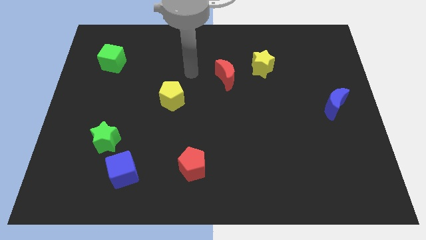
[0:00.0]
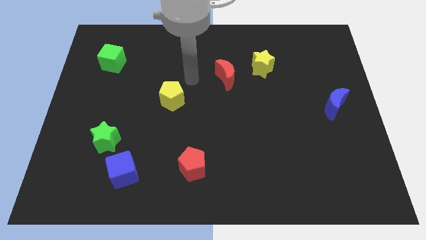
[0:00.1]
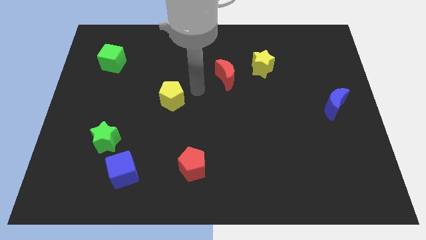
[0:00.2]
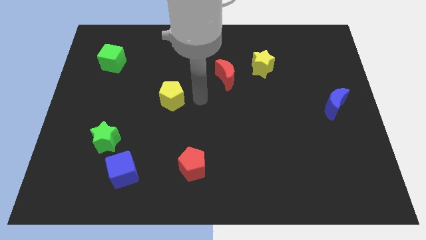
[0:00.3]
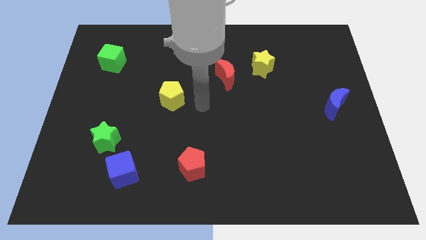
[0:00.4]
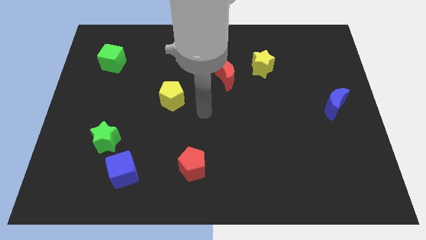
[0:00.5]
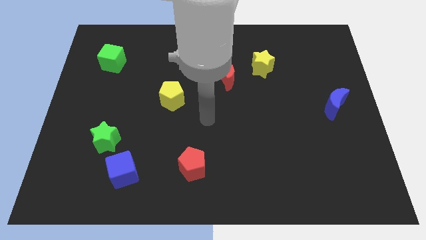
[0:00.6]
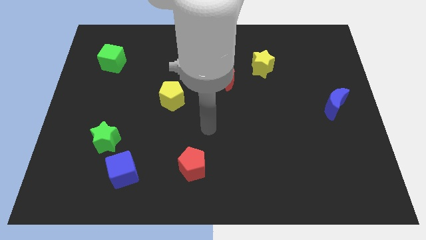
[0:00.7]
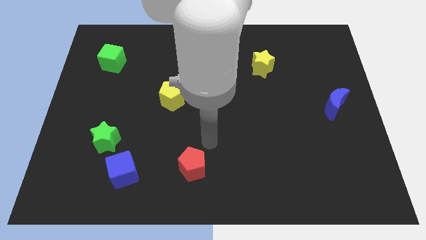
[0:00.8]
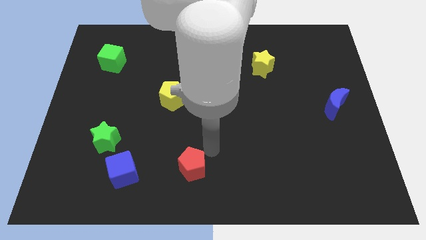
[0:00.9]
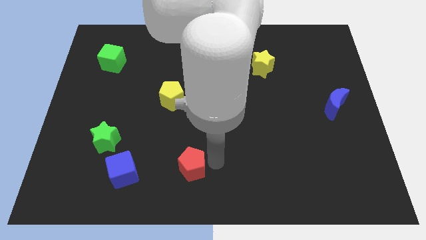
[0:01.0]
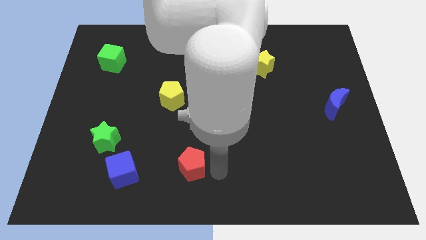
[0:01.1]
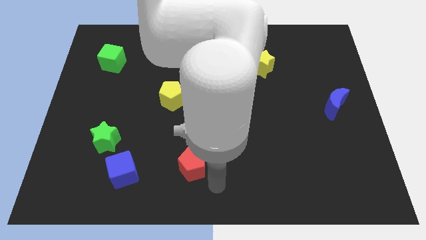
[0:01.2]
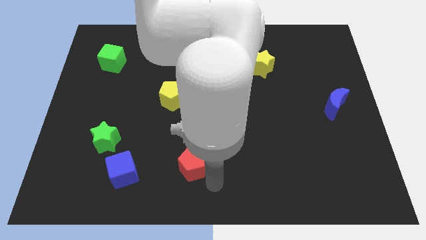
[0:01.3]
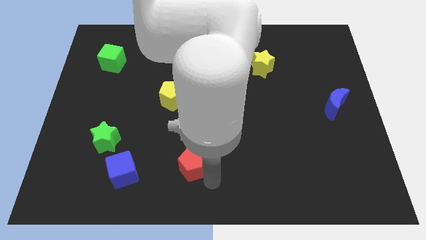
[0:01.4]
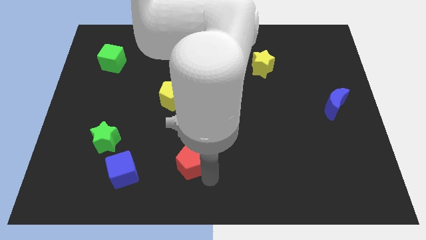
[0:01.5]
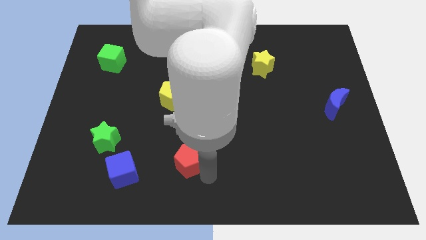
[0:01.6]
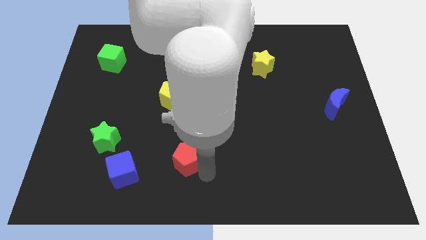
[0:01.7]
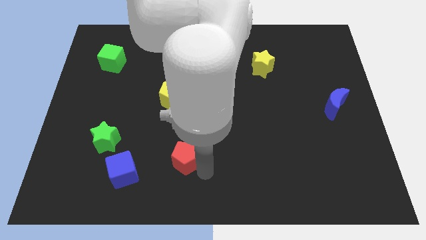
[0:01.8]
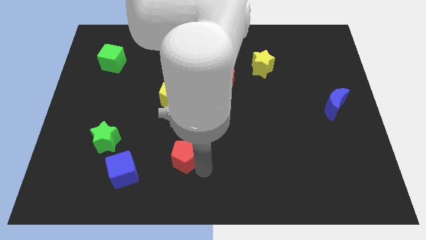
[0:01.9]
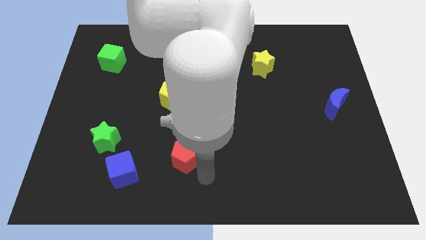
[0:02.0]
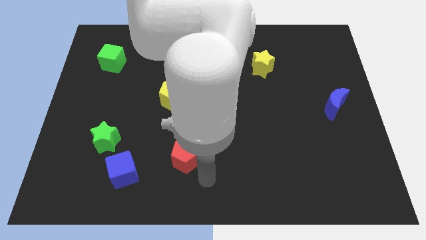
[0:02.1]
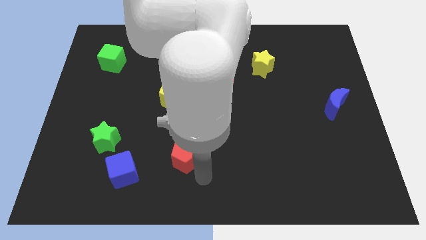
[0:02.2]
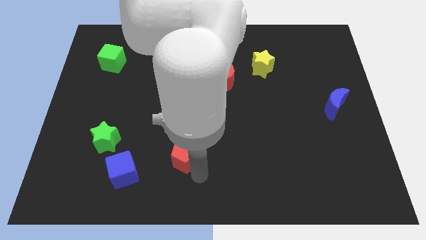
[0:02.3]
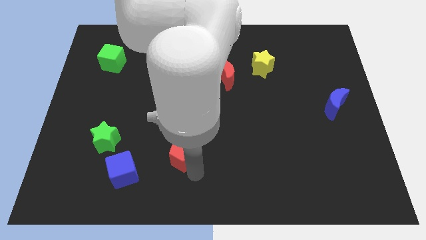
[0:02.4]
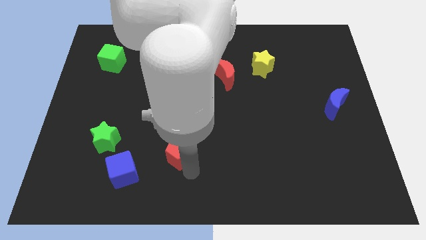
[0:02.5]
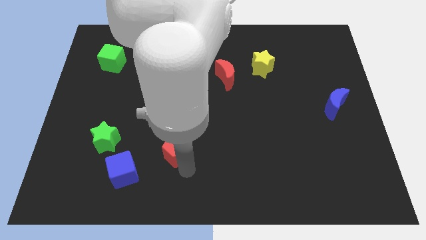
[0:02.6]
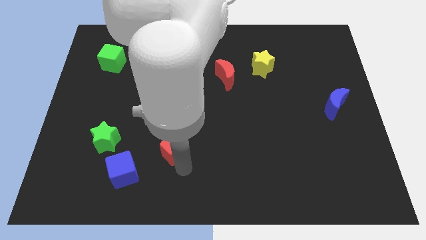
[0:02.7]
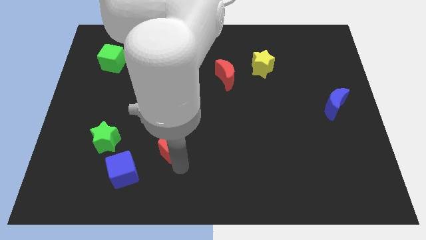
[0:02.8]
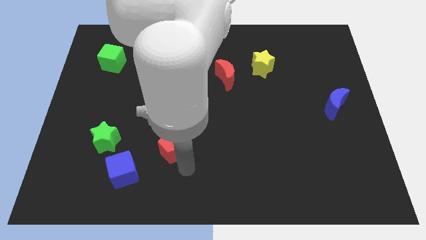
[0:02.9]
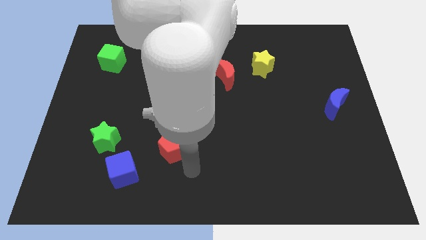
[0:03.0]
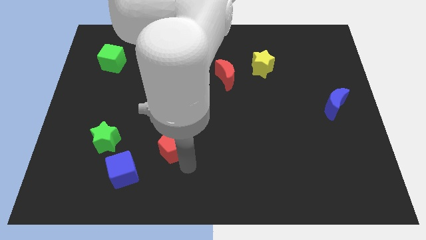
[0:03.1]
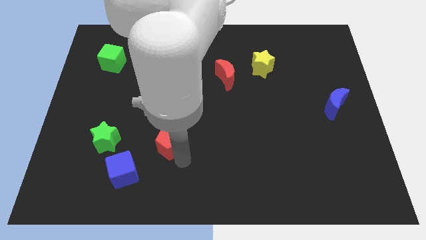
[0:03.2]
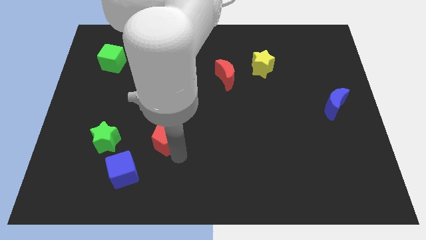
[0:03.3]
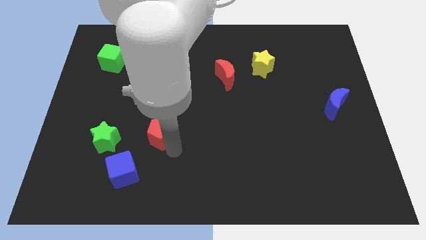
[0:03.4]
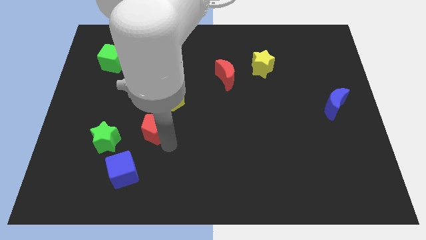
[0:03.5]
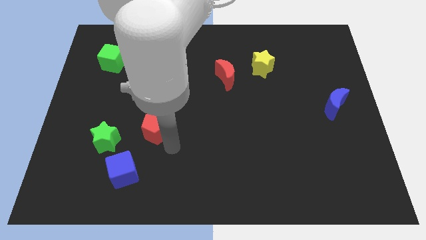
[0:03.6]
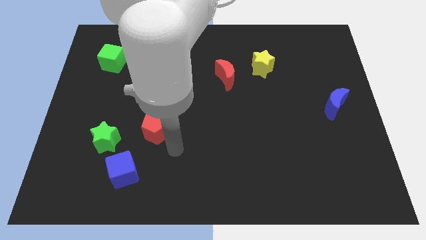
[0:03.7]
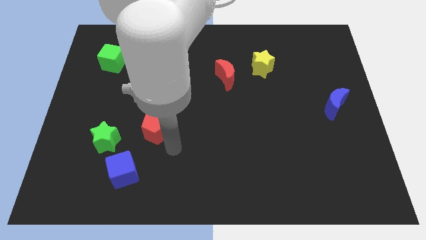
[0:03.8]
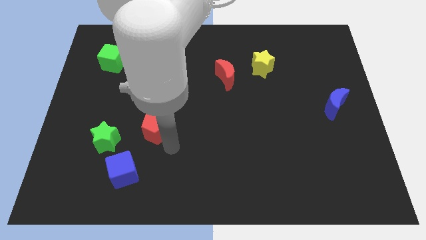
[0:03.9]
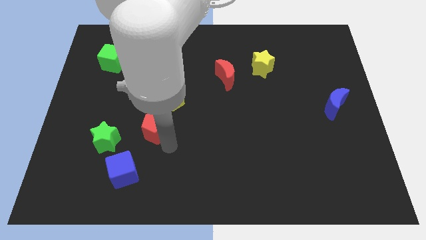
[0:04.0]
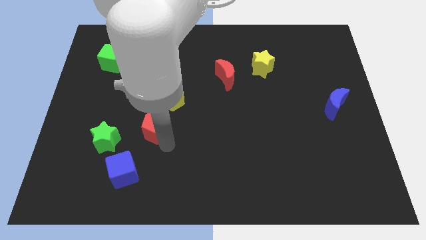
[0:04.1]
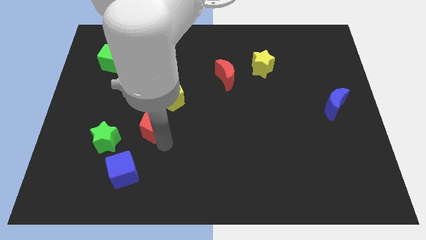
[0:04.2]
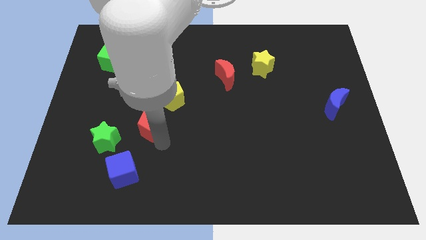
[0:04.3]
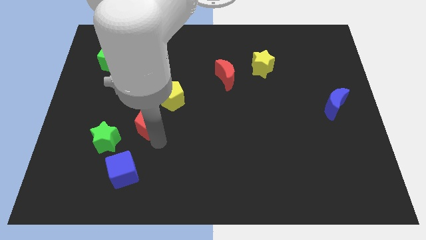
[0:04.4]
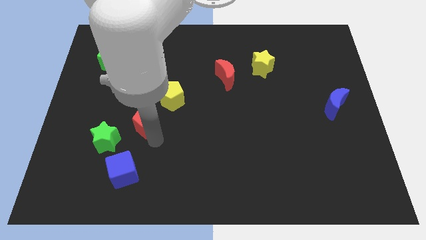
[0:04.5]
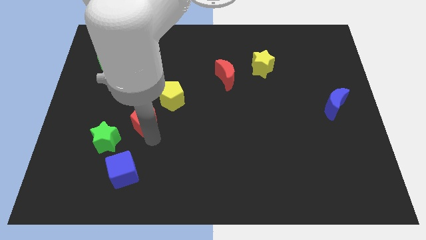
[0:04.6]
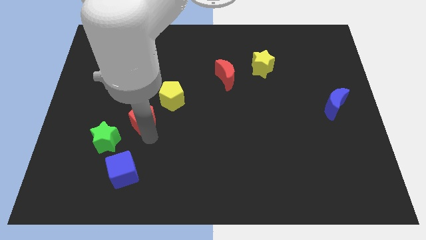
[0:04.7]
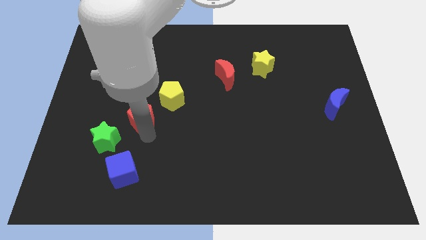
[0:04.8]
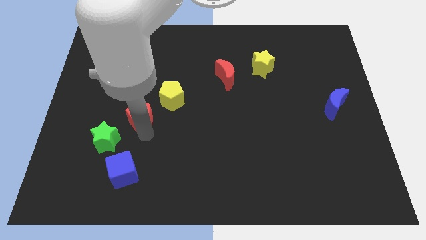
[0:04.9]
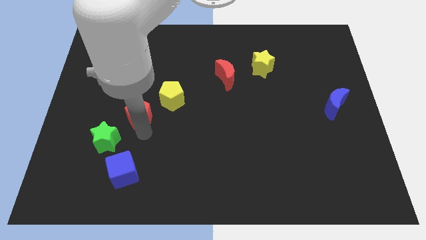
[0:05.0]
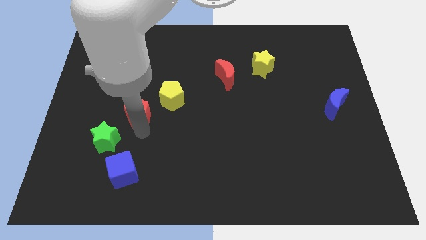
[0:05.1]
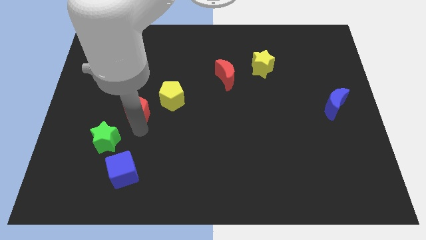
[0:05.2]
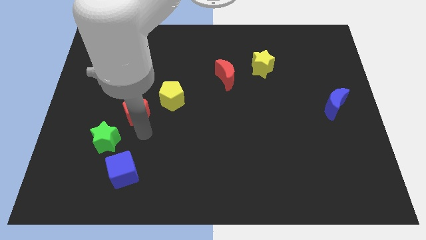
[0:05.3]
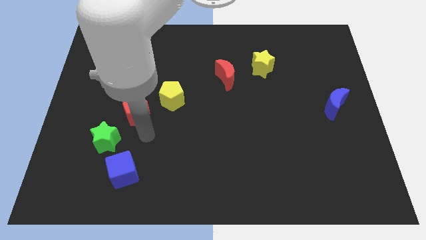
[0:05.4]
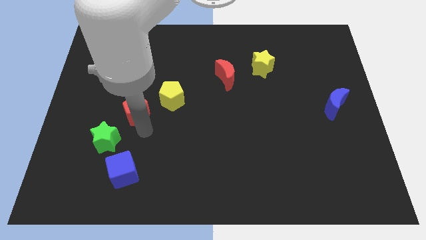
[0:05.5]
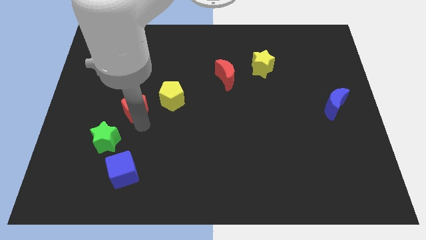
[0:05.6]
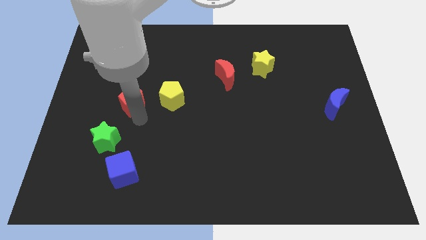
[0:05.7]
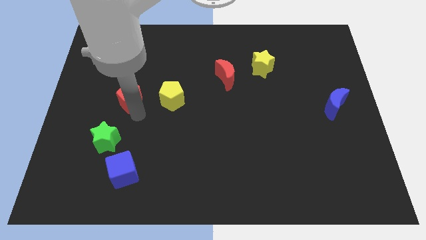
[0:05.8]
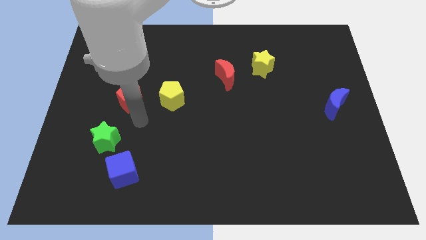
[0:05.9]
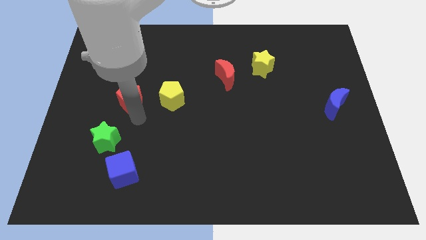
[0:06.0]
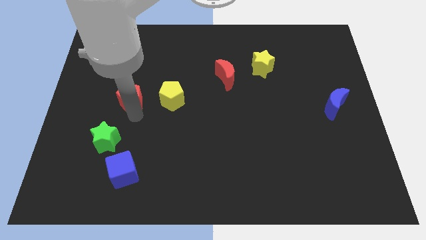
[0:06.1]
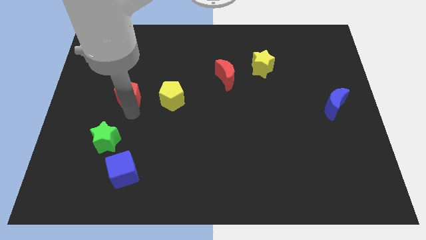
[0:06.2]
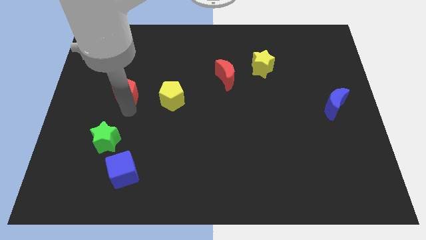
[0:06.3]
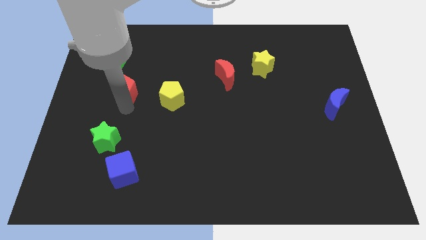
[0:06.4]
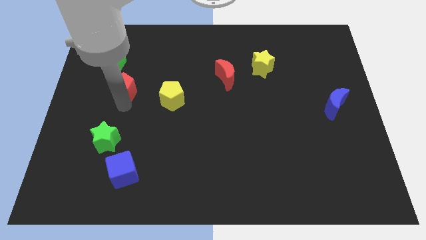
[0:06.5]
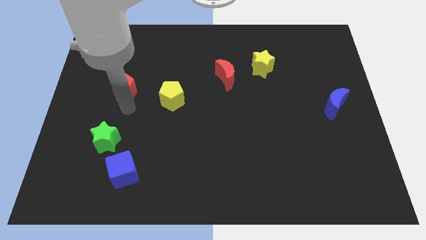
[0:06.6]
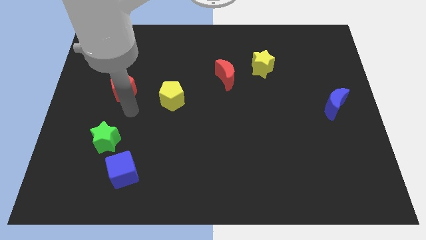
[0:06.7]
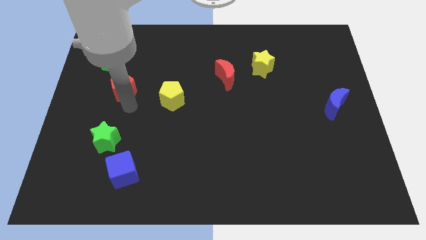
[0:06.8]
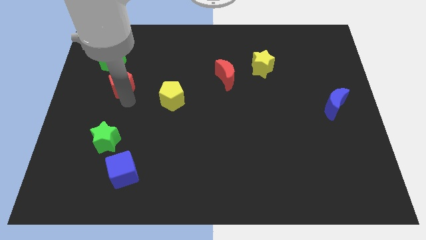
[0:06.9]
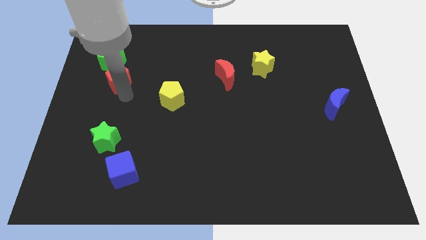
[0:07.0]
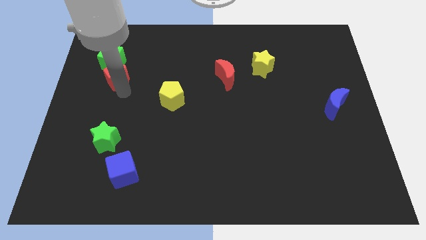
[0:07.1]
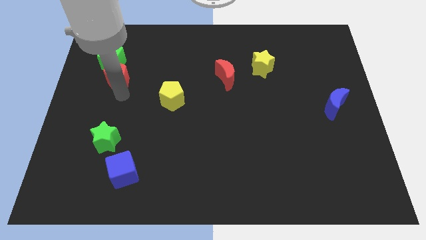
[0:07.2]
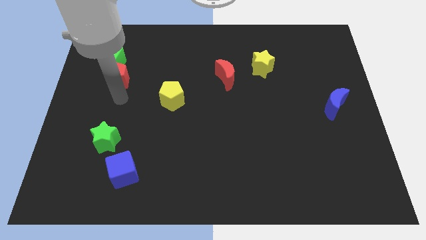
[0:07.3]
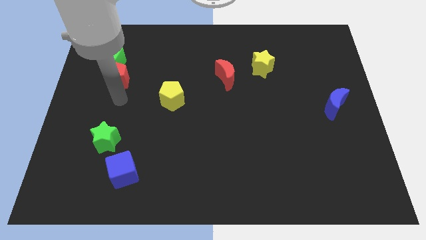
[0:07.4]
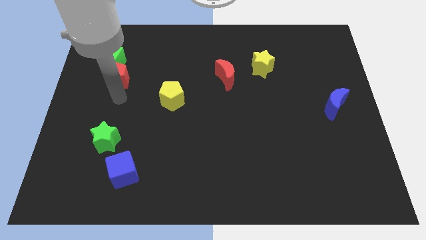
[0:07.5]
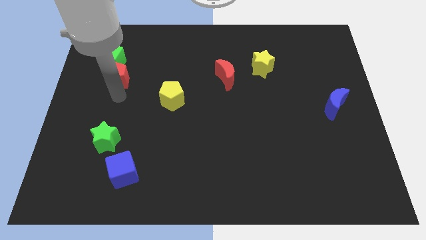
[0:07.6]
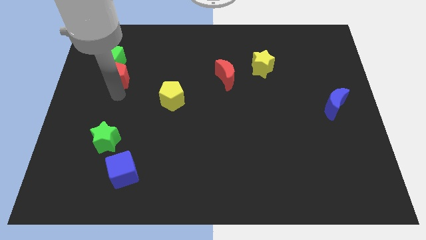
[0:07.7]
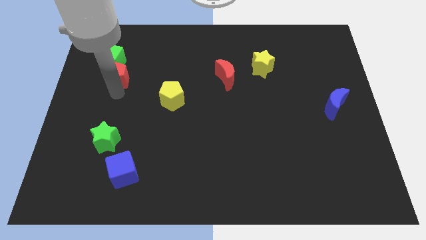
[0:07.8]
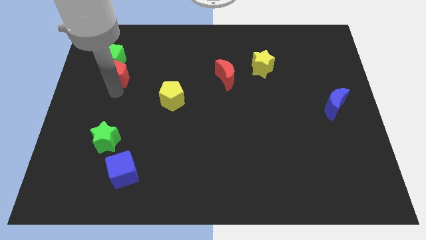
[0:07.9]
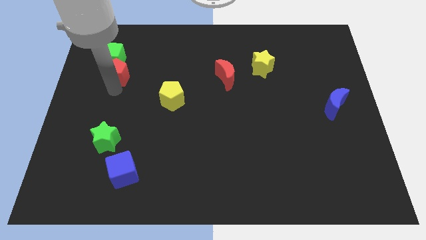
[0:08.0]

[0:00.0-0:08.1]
put the red pentagon close to the green cube
